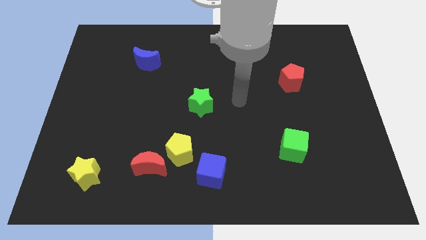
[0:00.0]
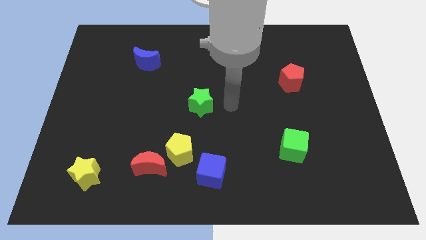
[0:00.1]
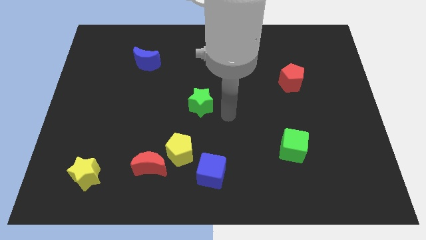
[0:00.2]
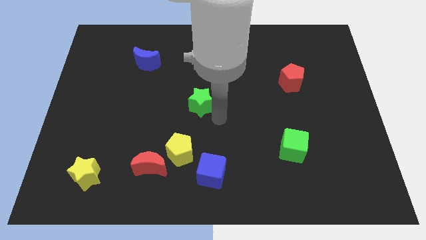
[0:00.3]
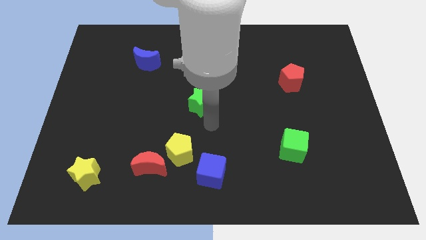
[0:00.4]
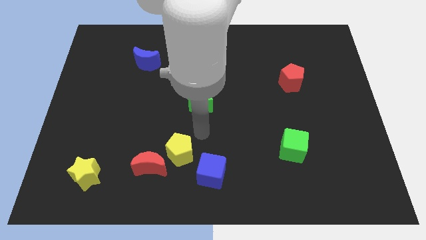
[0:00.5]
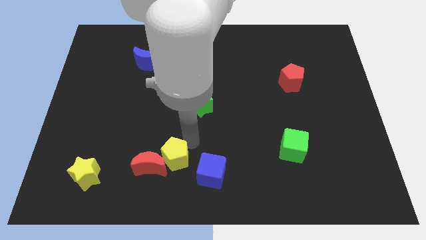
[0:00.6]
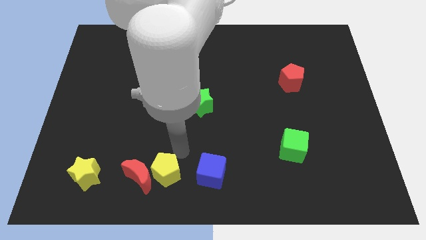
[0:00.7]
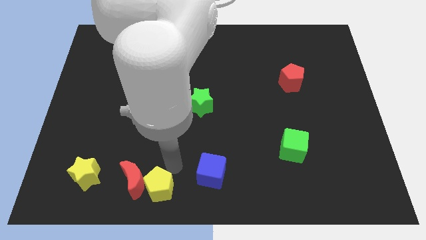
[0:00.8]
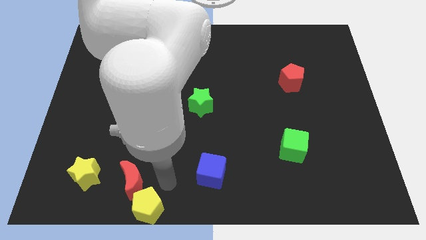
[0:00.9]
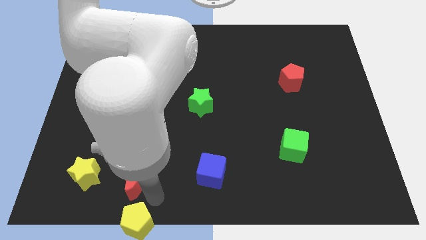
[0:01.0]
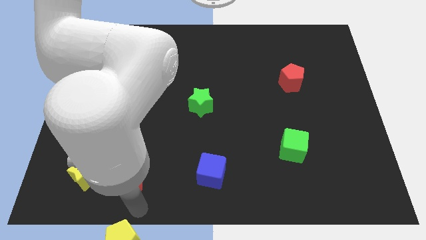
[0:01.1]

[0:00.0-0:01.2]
move the red moon away from the yellow pentagon

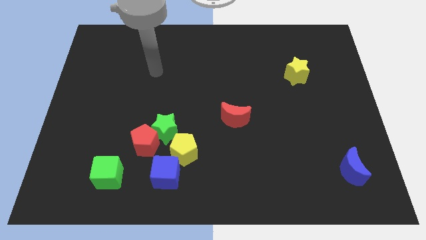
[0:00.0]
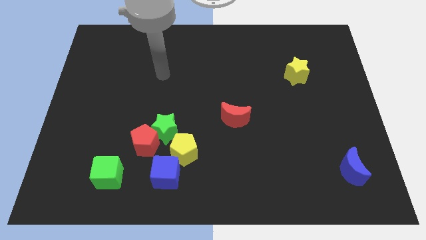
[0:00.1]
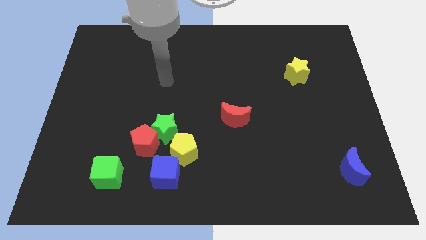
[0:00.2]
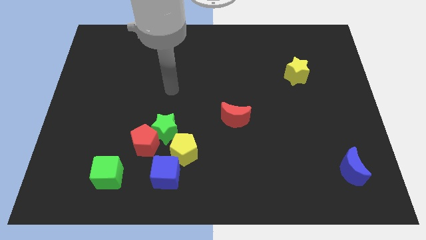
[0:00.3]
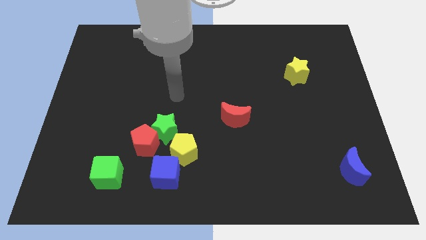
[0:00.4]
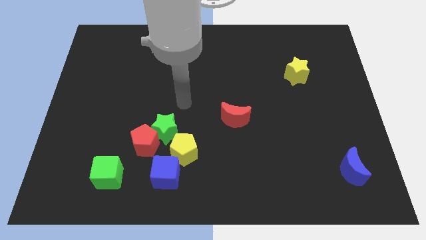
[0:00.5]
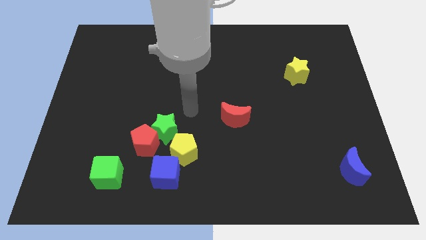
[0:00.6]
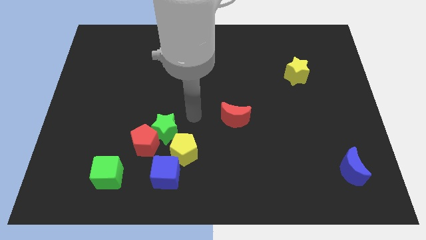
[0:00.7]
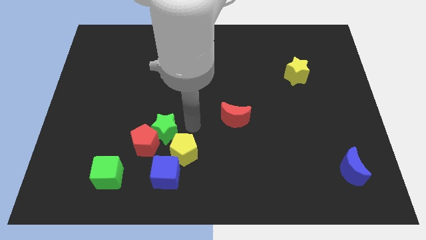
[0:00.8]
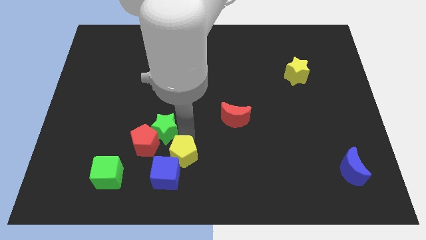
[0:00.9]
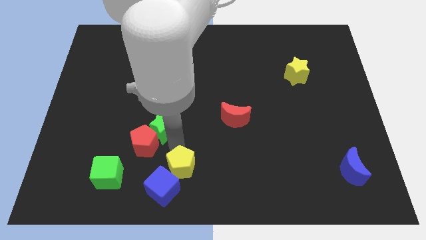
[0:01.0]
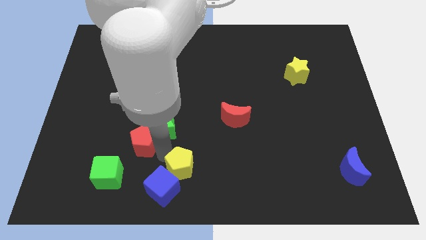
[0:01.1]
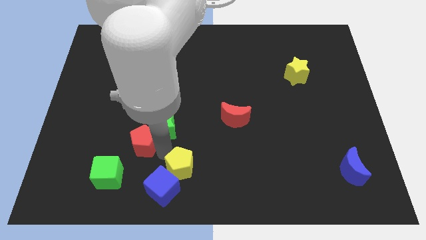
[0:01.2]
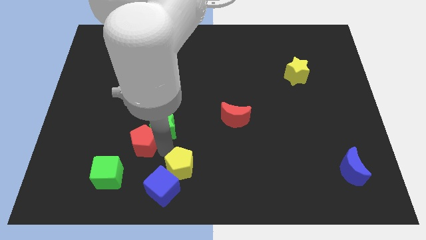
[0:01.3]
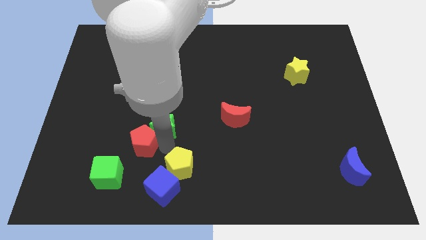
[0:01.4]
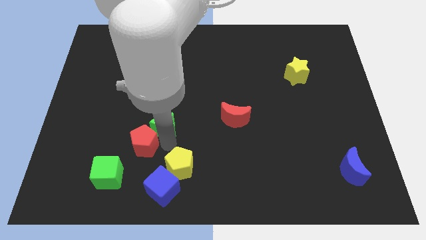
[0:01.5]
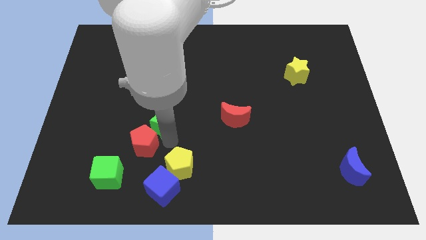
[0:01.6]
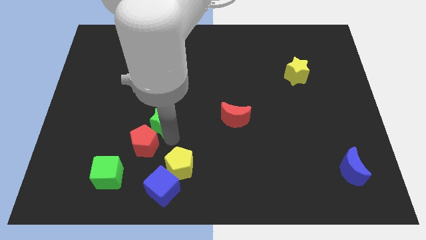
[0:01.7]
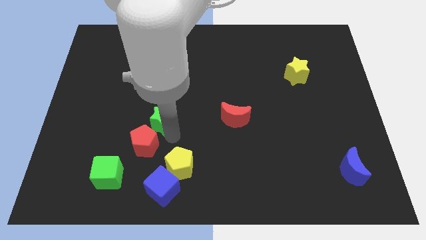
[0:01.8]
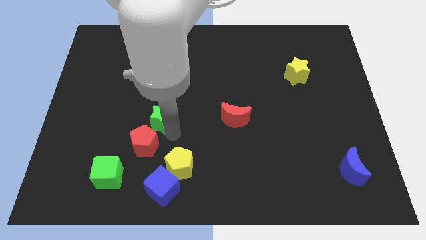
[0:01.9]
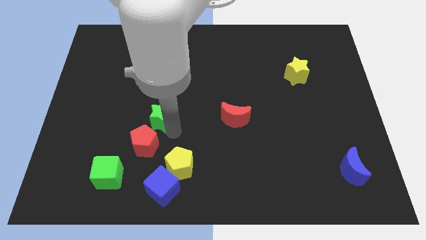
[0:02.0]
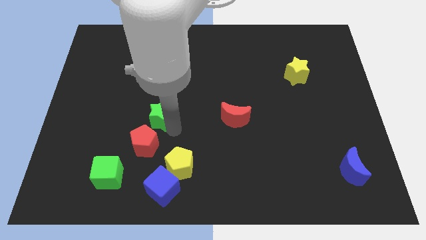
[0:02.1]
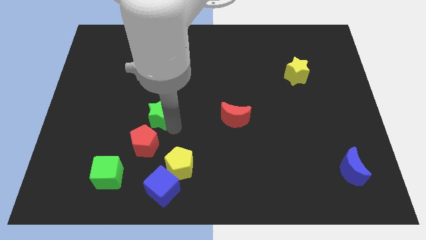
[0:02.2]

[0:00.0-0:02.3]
separate the green star from the red pentagon and yellow pentagon

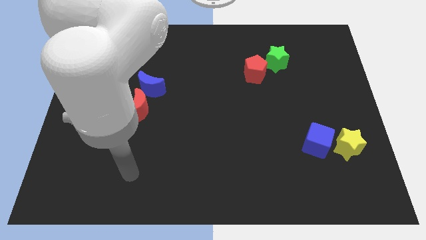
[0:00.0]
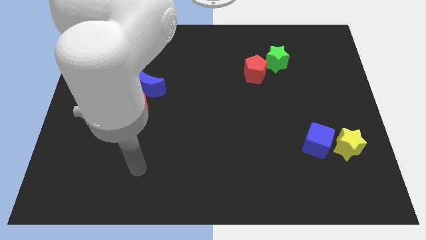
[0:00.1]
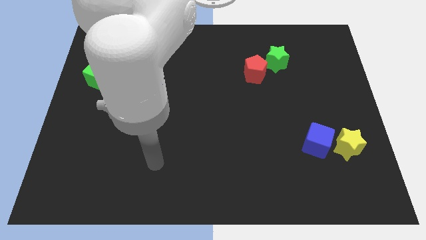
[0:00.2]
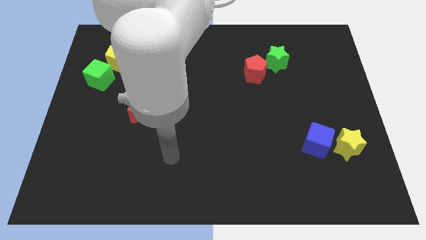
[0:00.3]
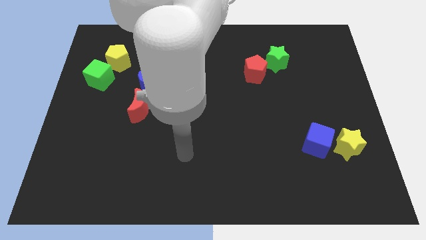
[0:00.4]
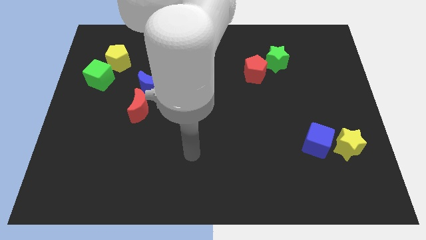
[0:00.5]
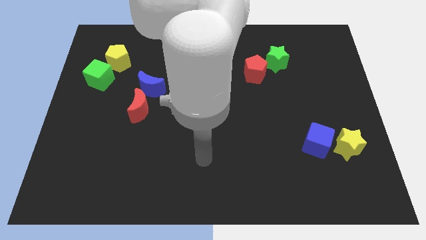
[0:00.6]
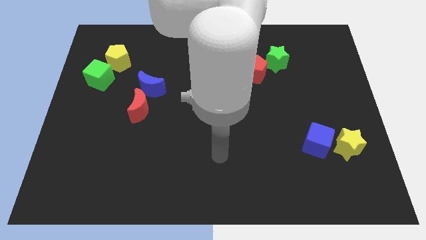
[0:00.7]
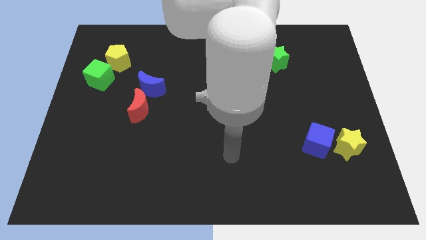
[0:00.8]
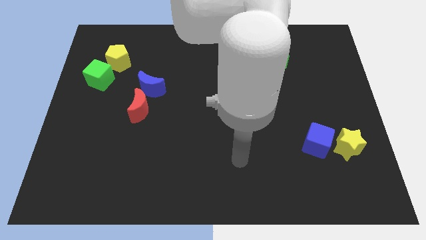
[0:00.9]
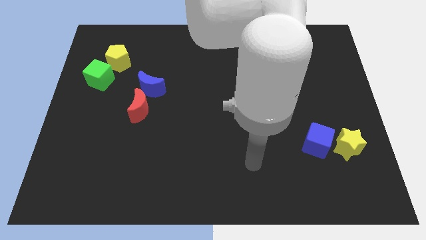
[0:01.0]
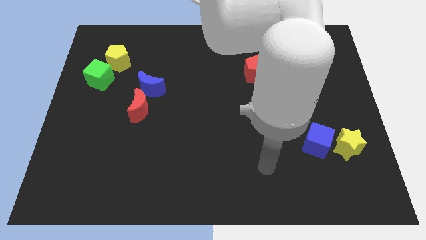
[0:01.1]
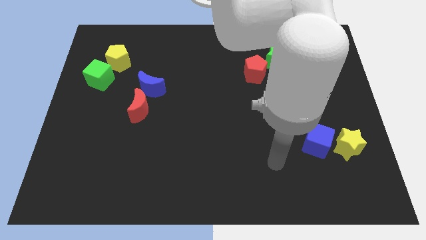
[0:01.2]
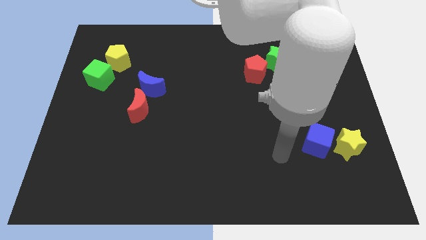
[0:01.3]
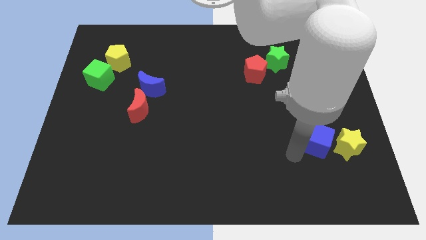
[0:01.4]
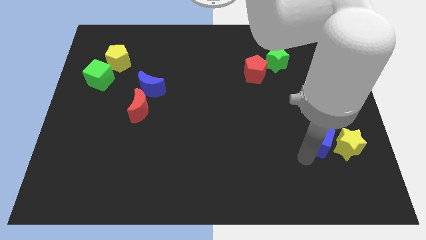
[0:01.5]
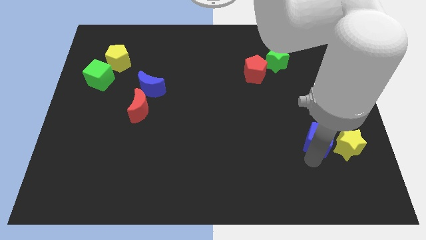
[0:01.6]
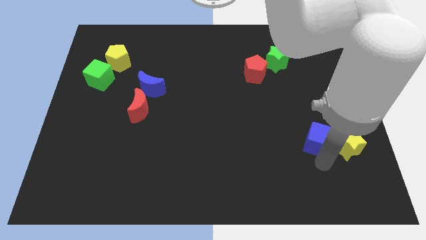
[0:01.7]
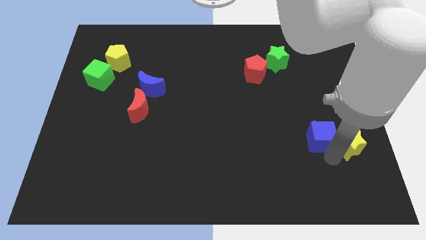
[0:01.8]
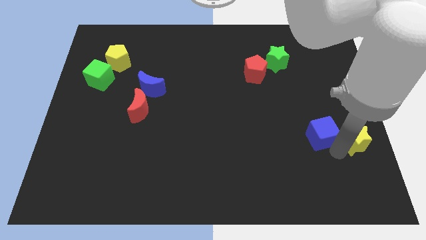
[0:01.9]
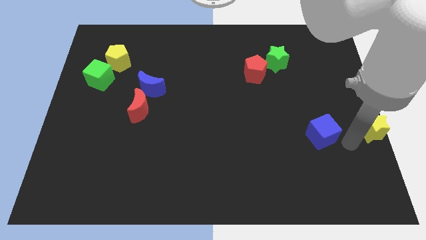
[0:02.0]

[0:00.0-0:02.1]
separate the blue cube from the yellow star

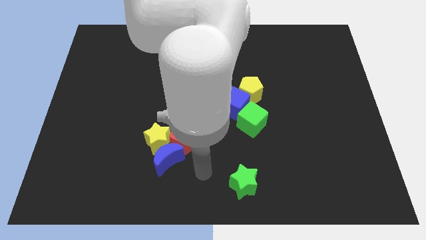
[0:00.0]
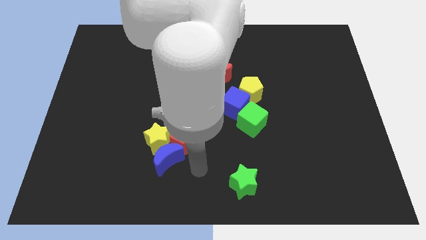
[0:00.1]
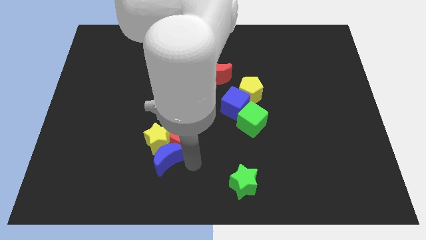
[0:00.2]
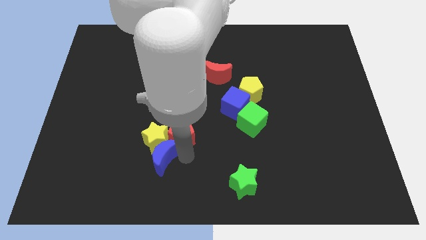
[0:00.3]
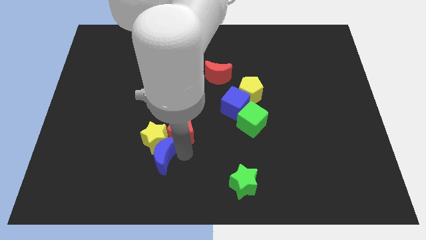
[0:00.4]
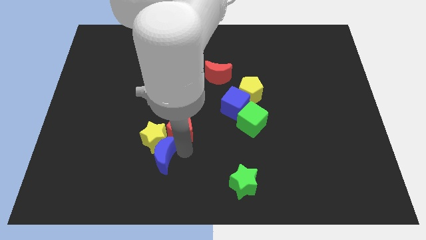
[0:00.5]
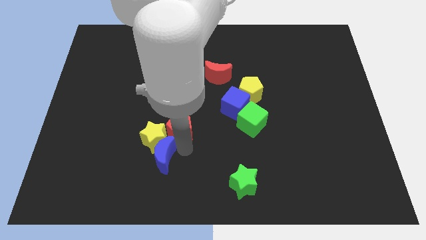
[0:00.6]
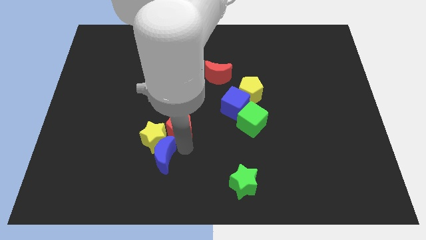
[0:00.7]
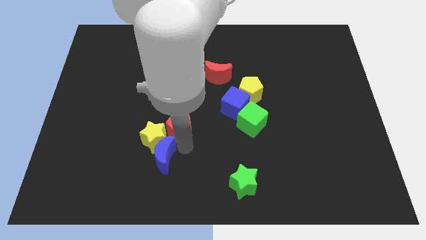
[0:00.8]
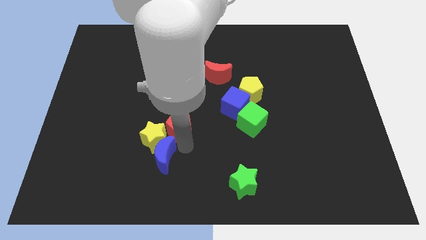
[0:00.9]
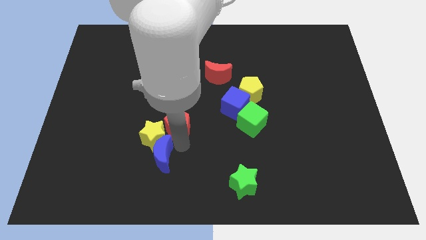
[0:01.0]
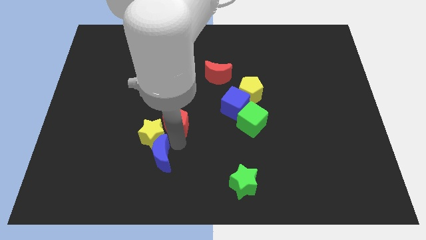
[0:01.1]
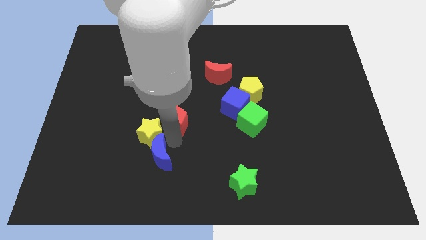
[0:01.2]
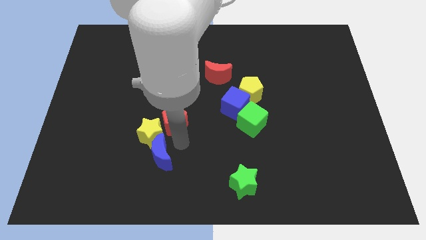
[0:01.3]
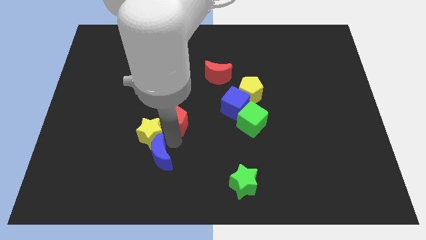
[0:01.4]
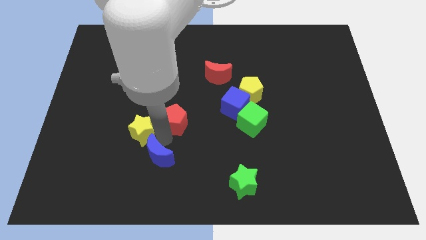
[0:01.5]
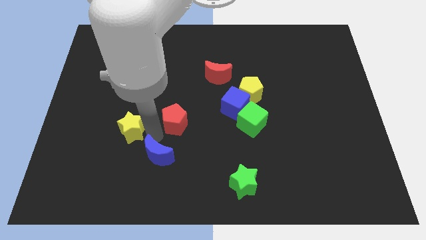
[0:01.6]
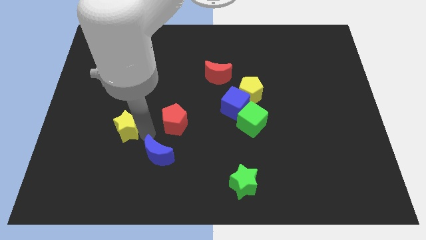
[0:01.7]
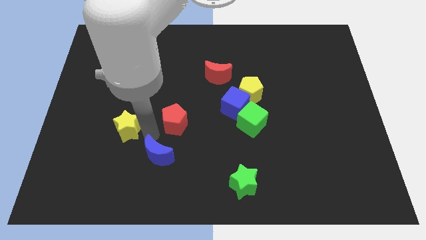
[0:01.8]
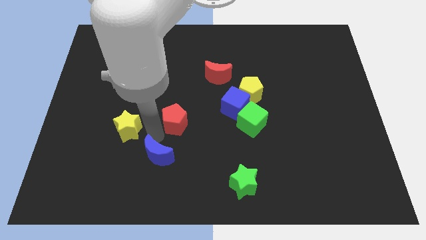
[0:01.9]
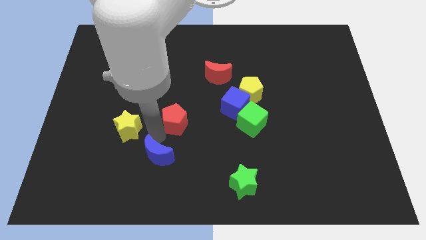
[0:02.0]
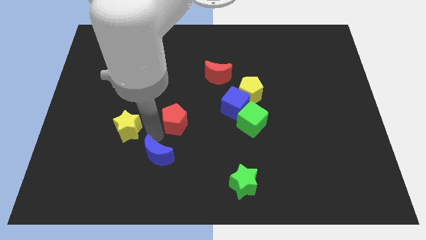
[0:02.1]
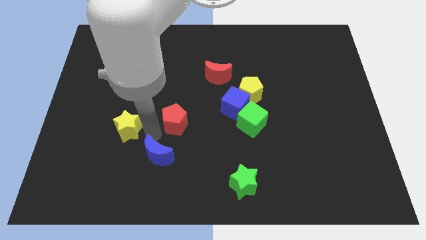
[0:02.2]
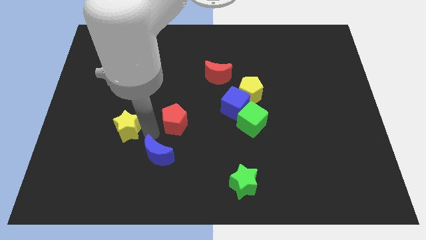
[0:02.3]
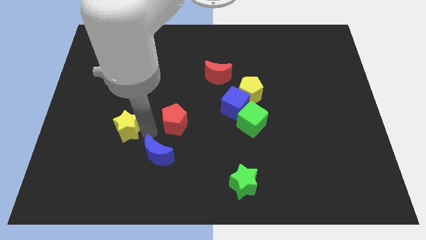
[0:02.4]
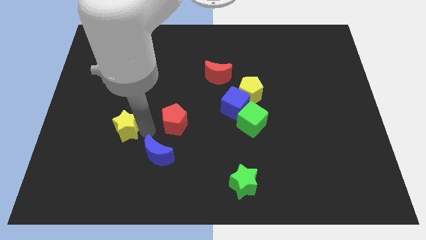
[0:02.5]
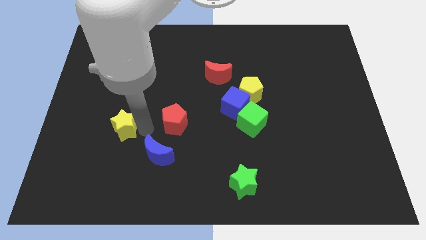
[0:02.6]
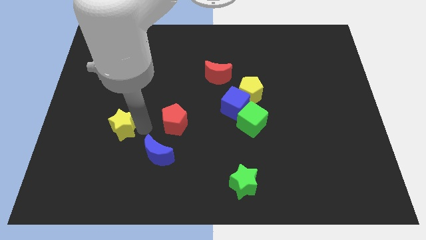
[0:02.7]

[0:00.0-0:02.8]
move the yellow star away from the blue moon and red pentagon

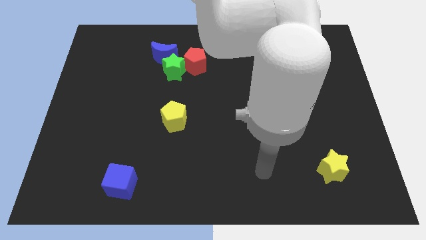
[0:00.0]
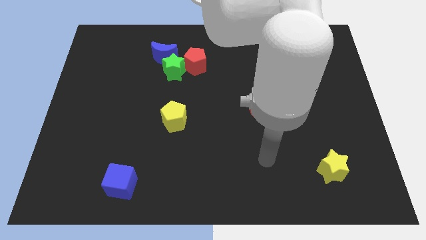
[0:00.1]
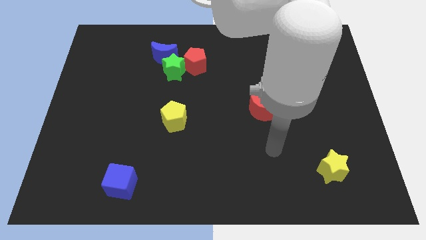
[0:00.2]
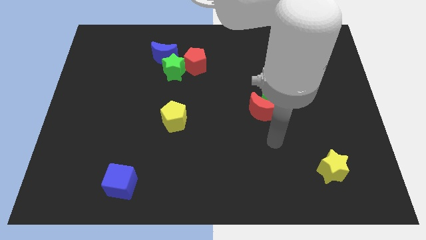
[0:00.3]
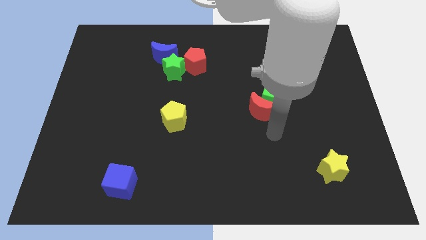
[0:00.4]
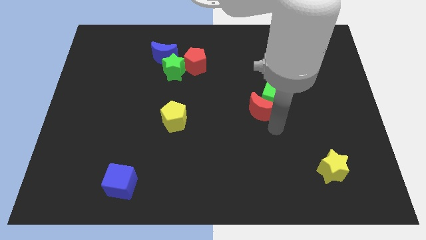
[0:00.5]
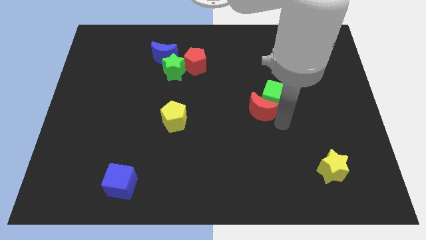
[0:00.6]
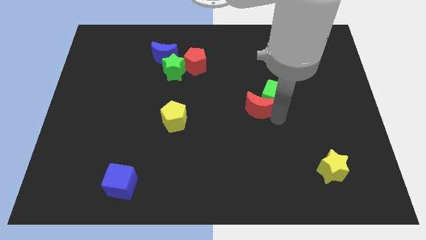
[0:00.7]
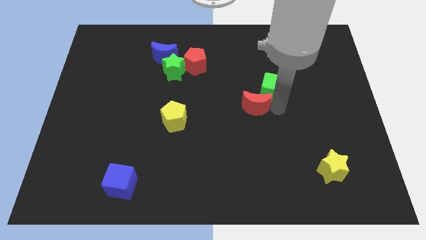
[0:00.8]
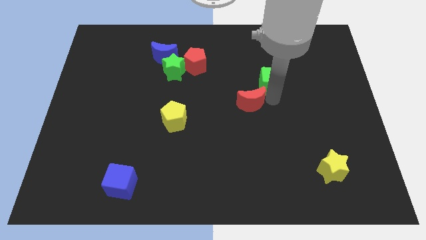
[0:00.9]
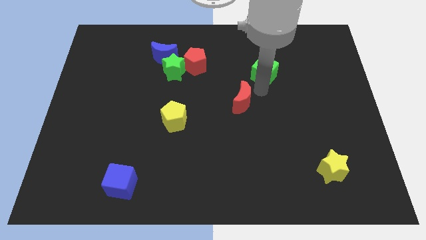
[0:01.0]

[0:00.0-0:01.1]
pull the red moon apart from the green cube
